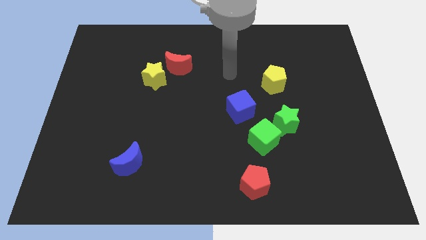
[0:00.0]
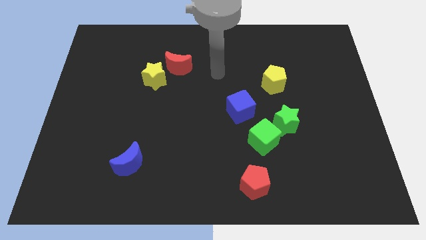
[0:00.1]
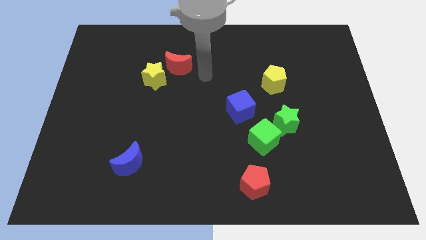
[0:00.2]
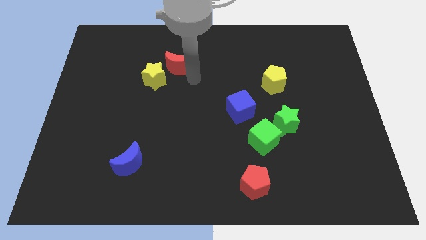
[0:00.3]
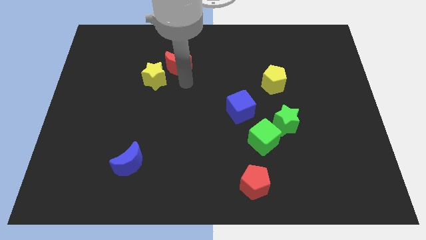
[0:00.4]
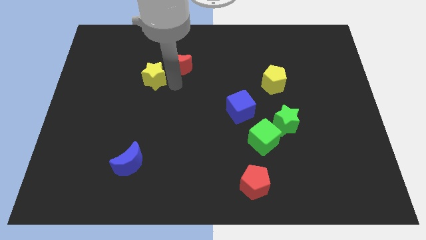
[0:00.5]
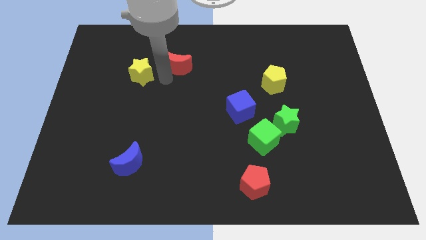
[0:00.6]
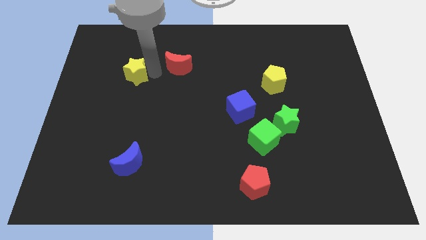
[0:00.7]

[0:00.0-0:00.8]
pull the red moon apart from the yellow star

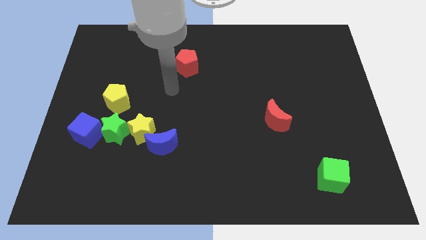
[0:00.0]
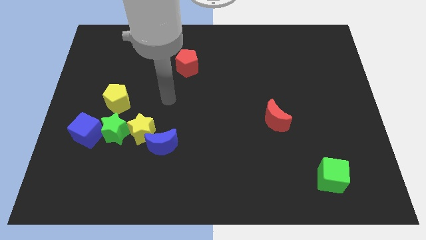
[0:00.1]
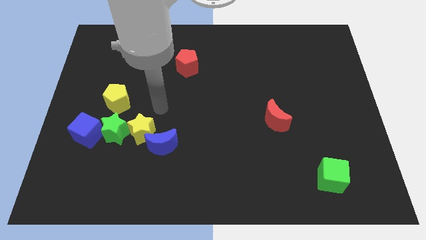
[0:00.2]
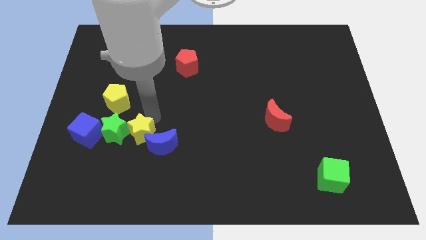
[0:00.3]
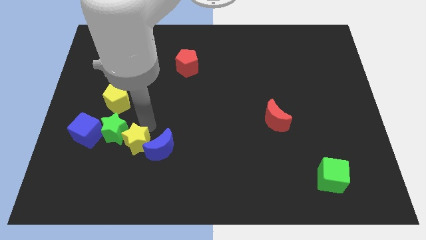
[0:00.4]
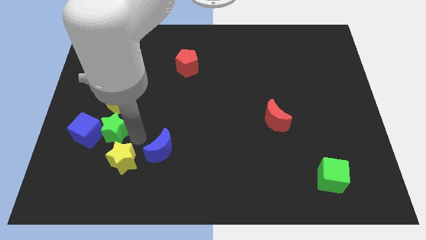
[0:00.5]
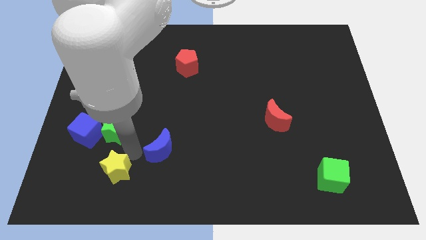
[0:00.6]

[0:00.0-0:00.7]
move the blue moon away from the yellow star

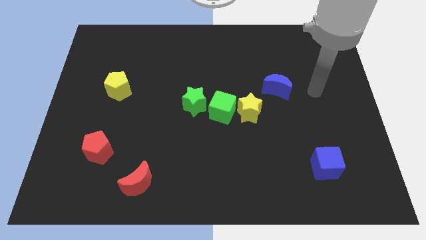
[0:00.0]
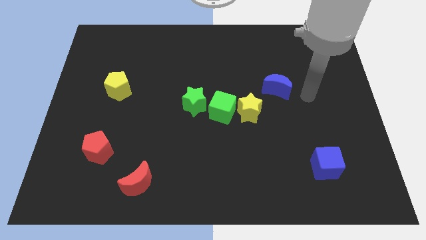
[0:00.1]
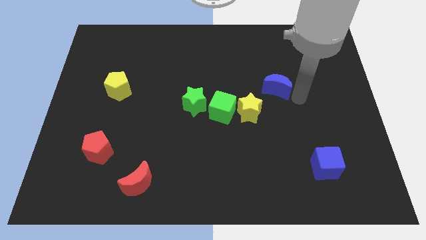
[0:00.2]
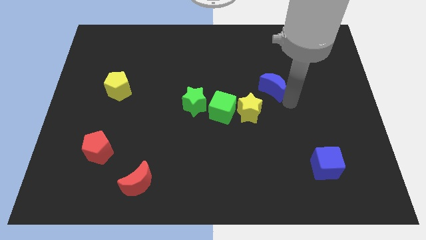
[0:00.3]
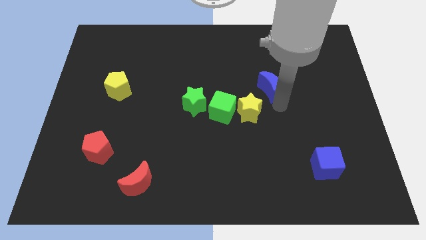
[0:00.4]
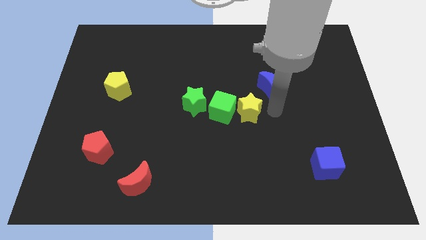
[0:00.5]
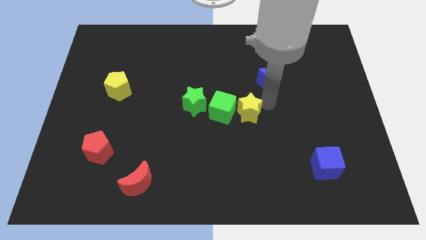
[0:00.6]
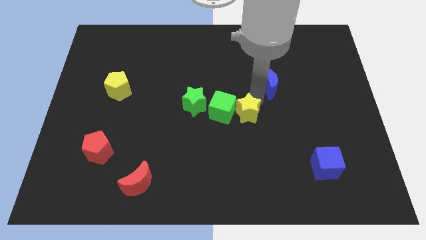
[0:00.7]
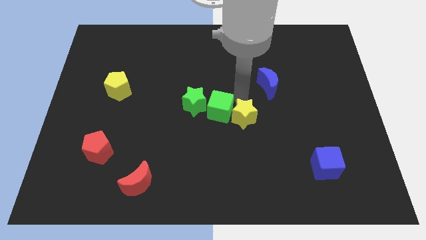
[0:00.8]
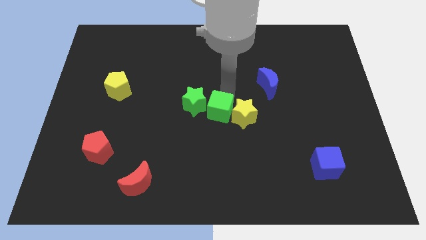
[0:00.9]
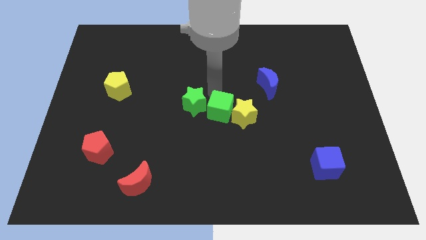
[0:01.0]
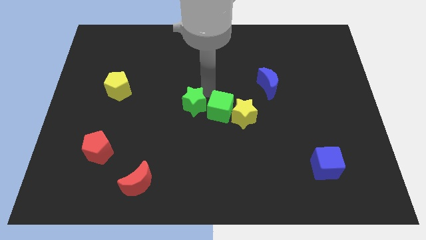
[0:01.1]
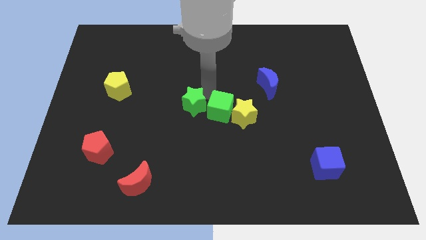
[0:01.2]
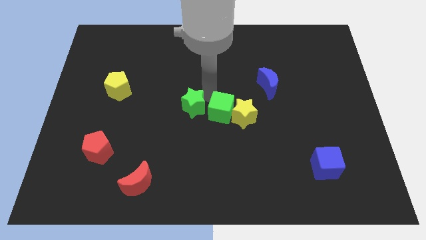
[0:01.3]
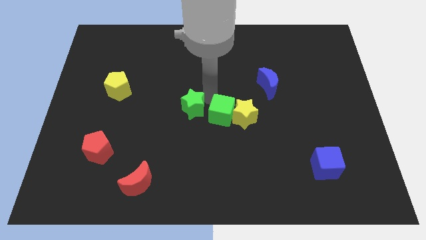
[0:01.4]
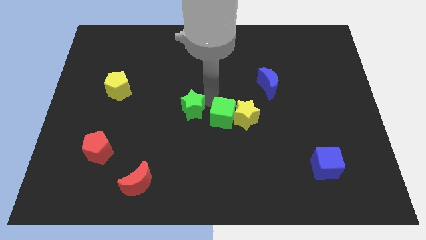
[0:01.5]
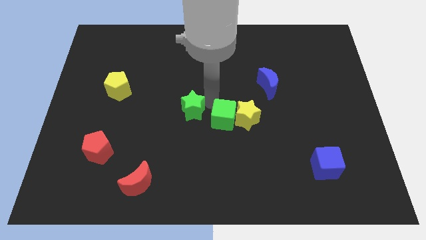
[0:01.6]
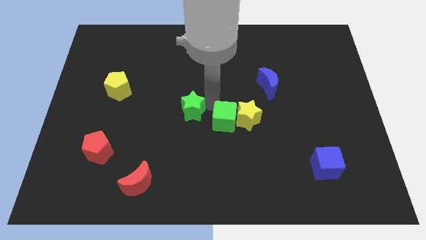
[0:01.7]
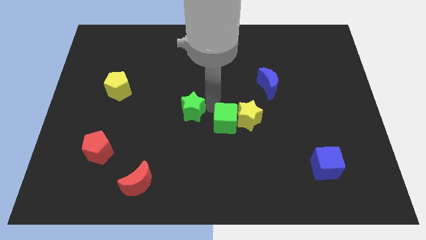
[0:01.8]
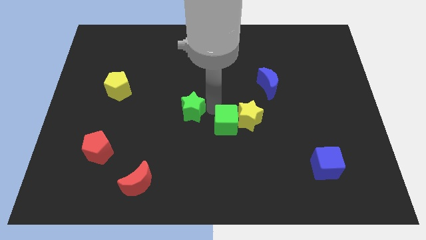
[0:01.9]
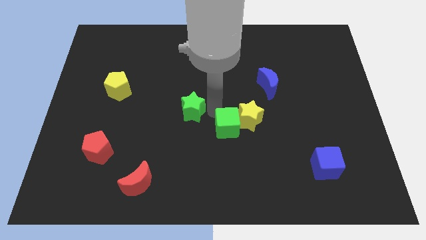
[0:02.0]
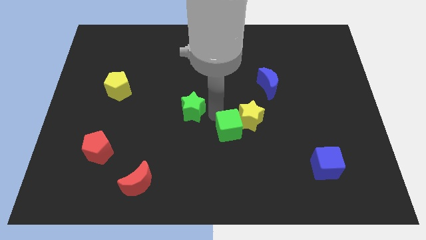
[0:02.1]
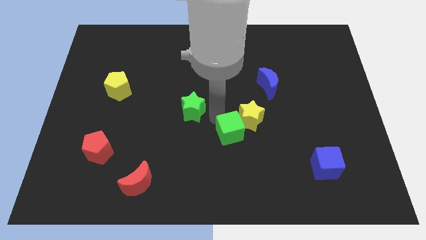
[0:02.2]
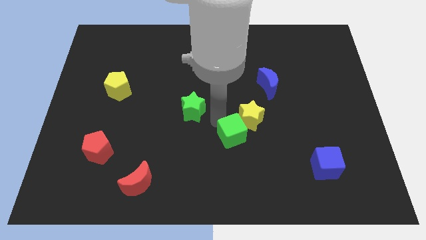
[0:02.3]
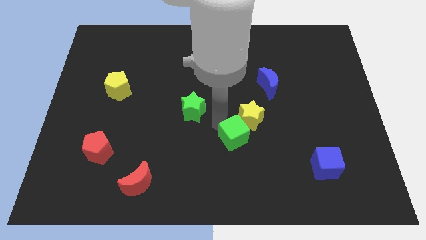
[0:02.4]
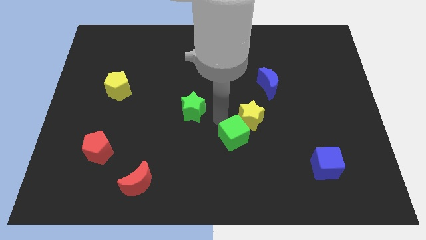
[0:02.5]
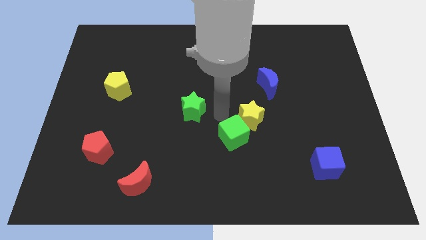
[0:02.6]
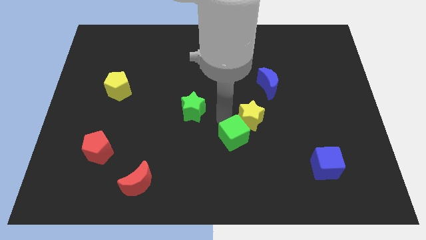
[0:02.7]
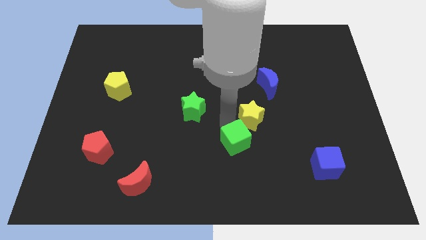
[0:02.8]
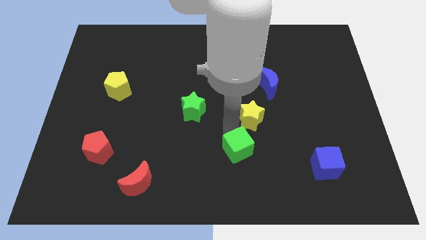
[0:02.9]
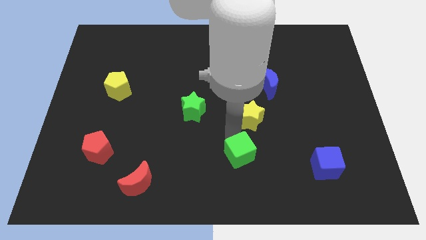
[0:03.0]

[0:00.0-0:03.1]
move the green cube away from the yellow star and green star

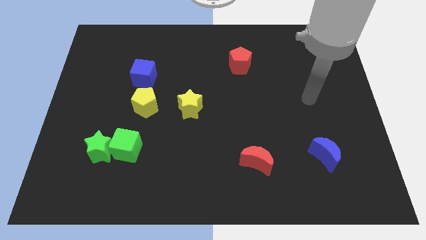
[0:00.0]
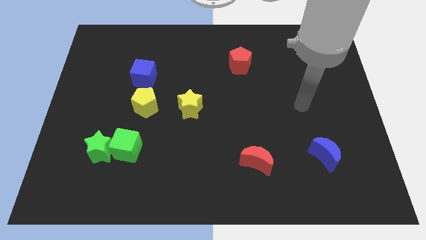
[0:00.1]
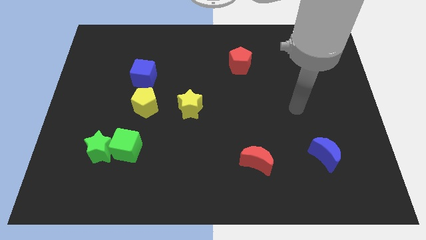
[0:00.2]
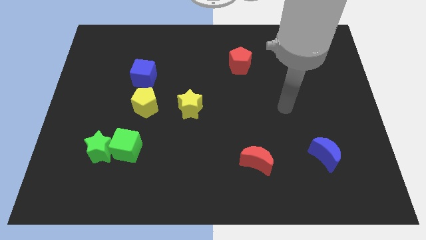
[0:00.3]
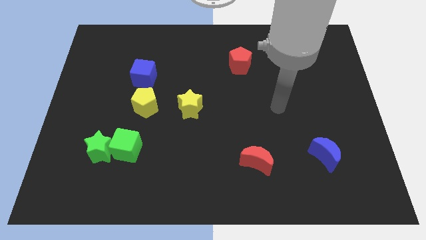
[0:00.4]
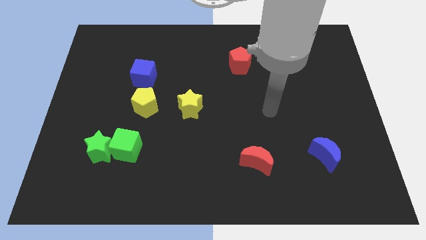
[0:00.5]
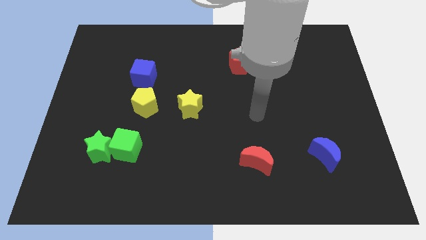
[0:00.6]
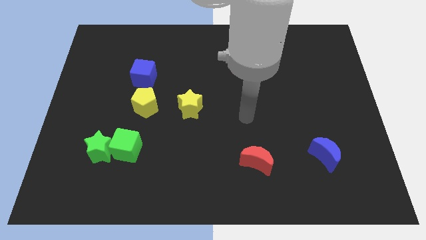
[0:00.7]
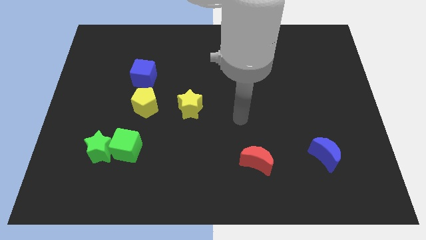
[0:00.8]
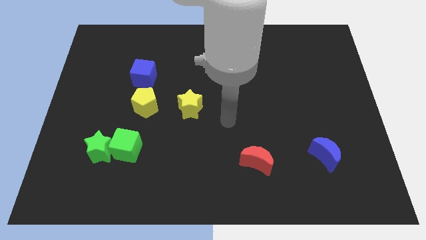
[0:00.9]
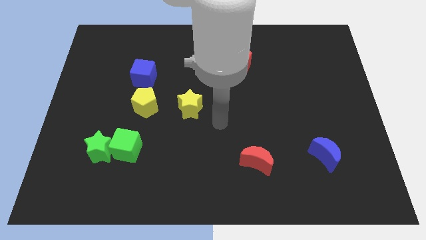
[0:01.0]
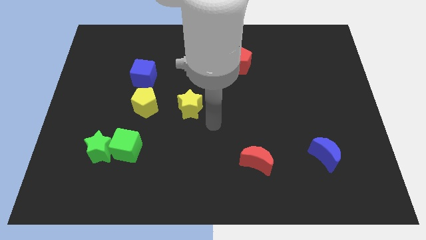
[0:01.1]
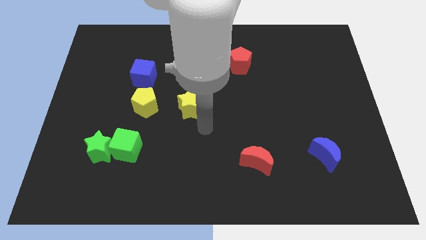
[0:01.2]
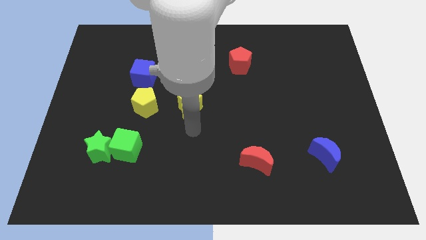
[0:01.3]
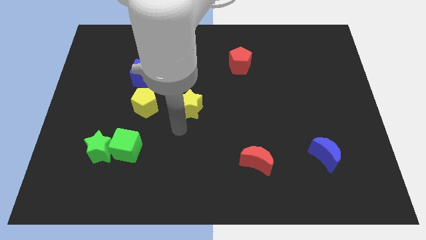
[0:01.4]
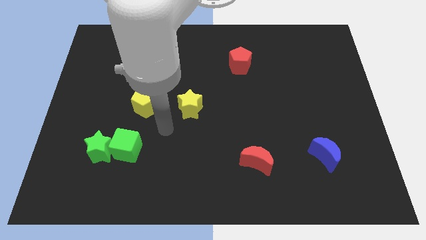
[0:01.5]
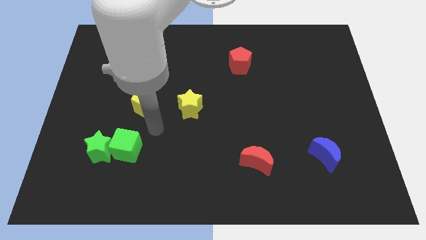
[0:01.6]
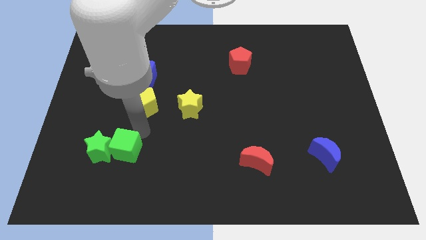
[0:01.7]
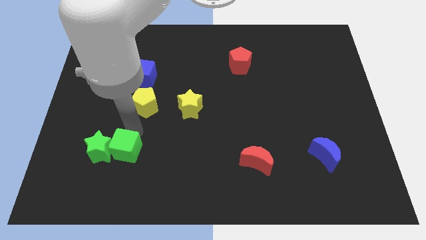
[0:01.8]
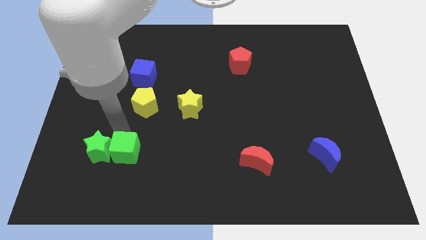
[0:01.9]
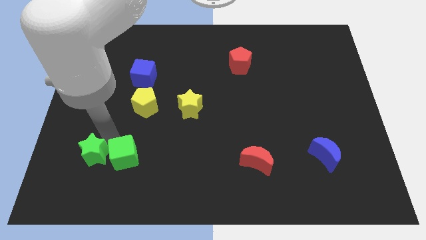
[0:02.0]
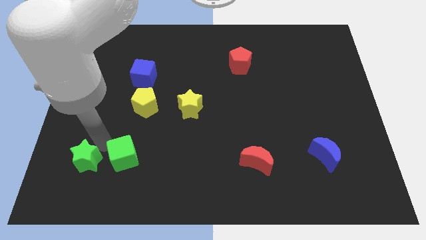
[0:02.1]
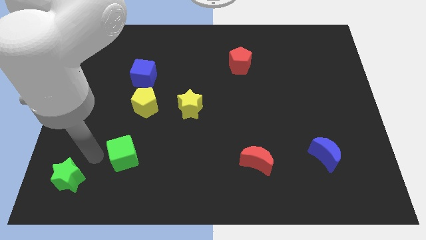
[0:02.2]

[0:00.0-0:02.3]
separate the green cube from the green star

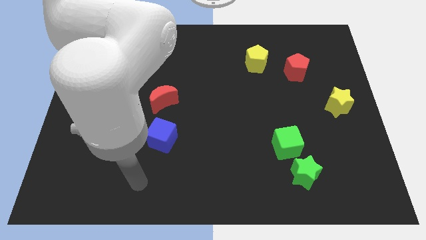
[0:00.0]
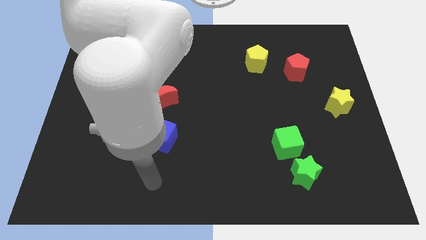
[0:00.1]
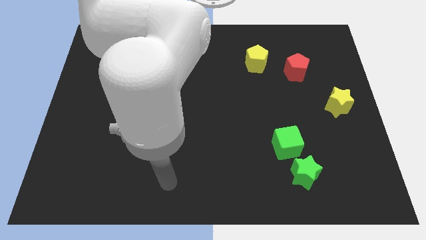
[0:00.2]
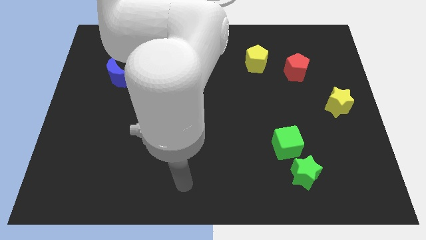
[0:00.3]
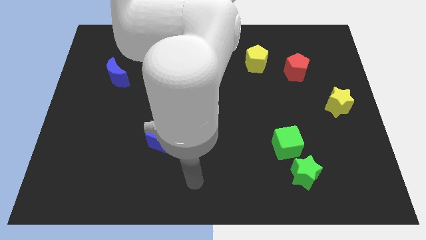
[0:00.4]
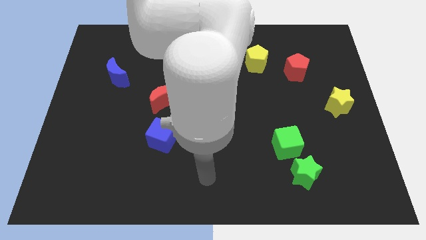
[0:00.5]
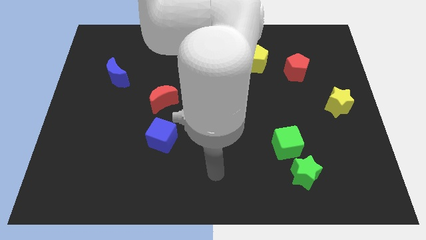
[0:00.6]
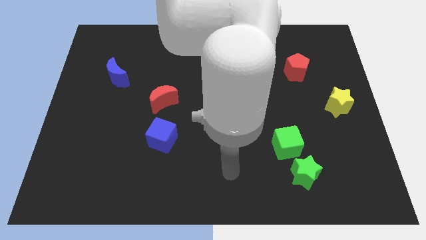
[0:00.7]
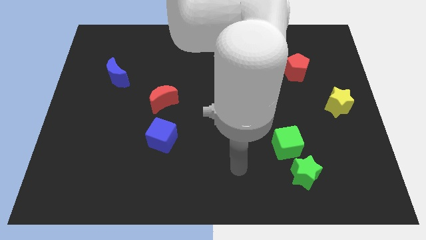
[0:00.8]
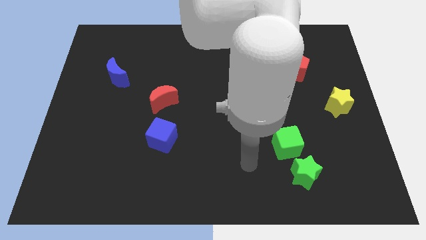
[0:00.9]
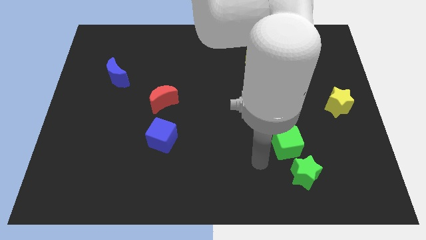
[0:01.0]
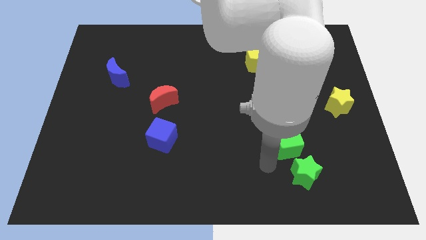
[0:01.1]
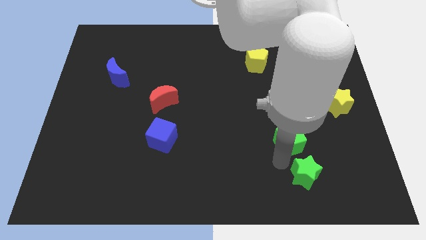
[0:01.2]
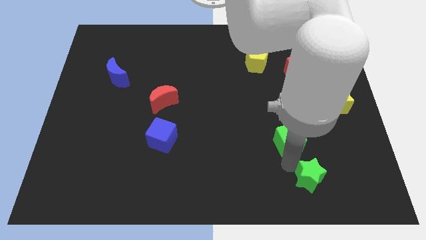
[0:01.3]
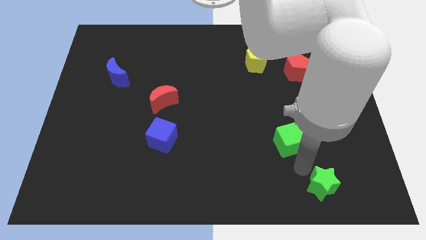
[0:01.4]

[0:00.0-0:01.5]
move the green cube away from the green star

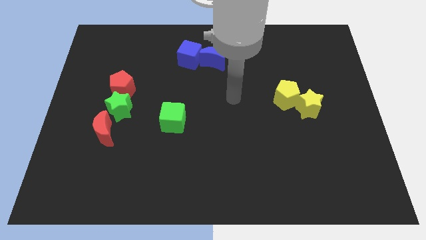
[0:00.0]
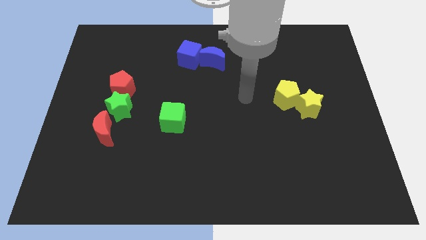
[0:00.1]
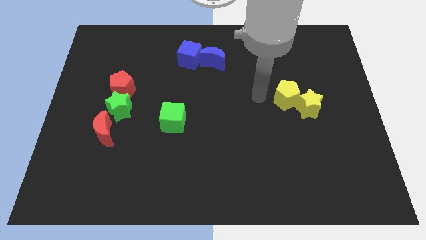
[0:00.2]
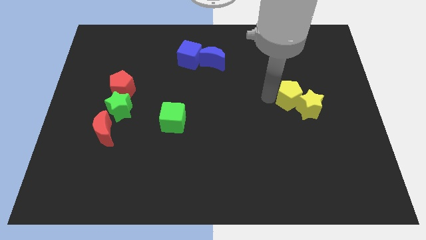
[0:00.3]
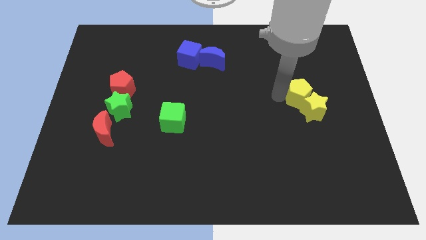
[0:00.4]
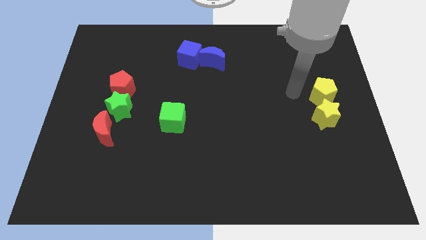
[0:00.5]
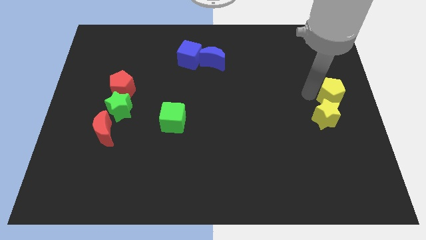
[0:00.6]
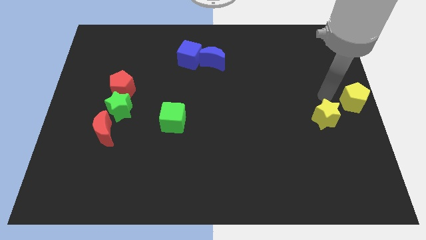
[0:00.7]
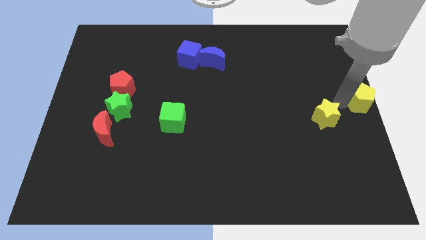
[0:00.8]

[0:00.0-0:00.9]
pull the yellow star apart from the yellow pentagon

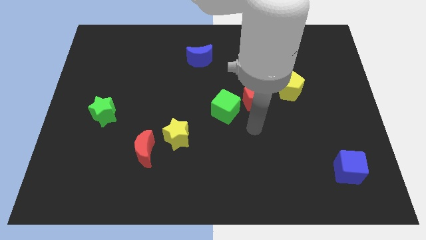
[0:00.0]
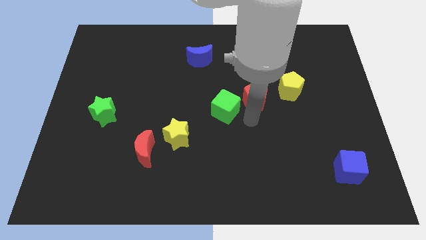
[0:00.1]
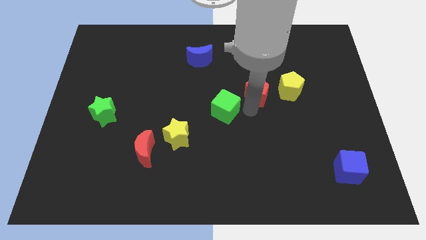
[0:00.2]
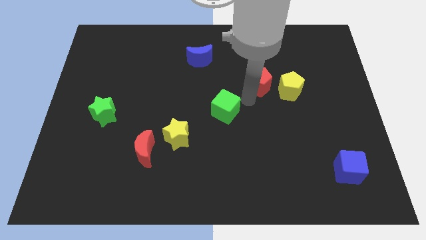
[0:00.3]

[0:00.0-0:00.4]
move the green cube away from the red pentagon
